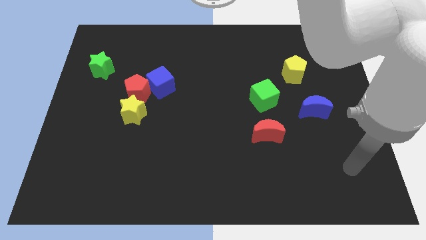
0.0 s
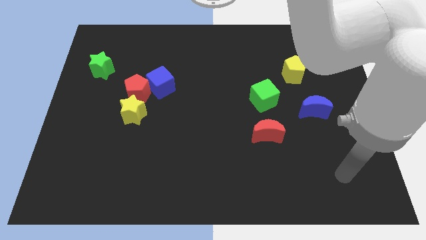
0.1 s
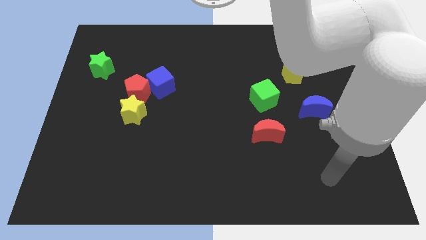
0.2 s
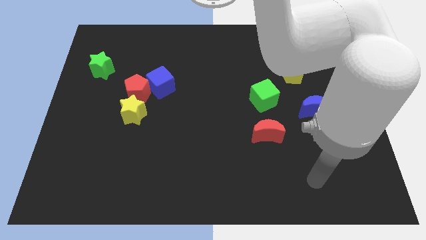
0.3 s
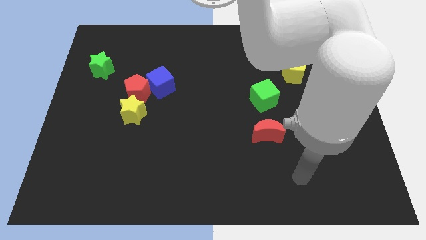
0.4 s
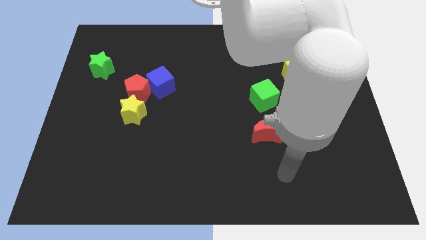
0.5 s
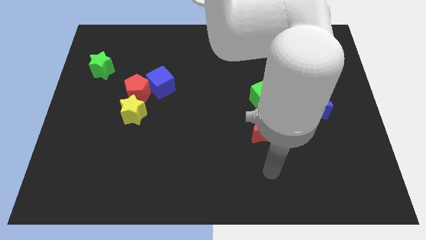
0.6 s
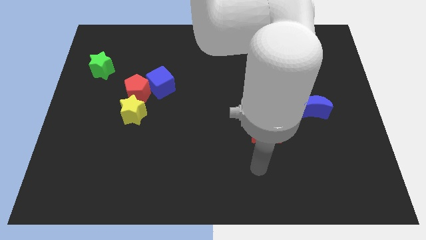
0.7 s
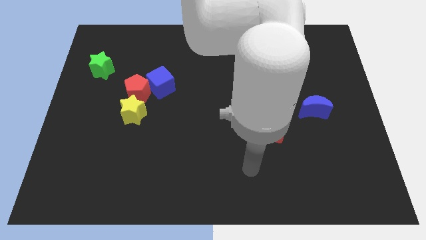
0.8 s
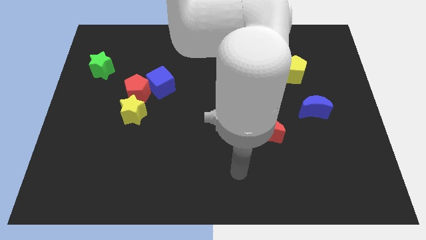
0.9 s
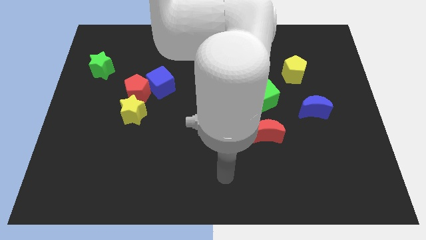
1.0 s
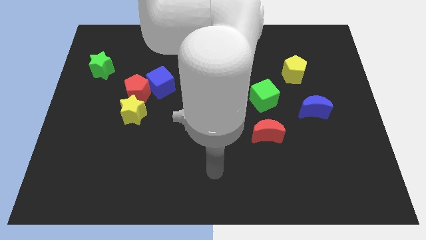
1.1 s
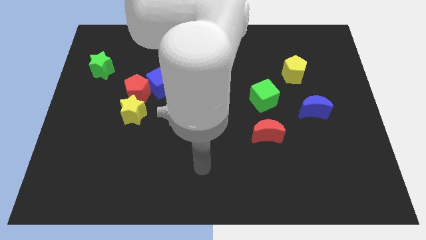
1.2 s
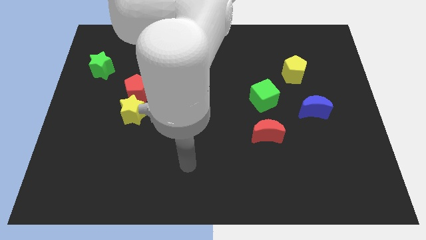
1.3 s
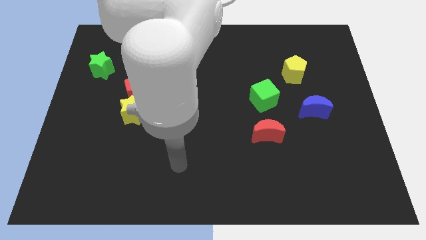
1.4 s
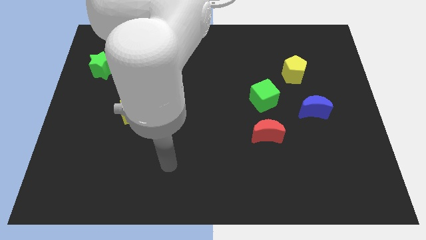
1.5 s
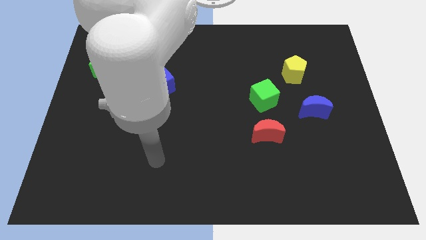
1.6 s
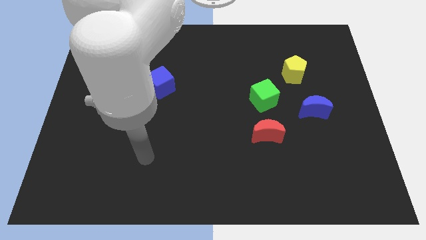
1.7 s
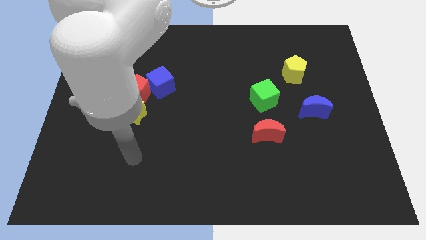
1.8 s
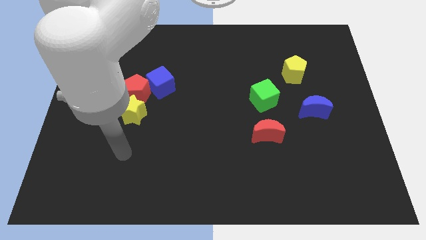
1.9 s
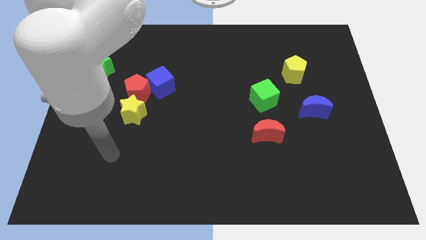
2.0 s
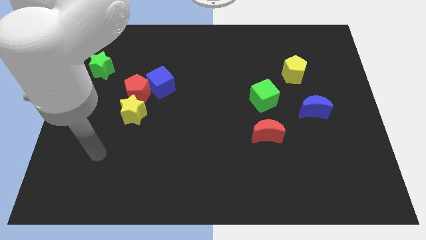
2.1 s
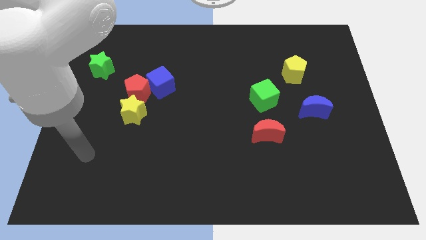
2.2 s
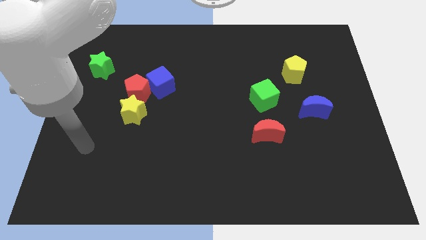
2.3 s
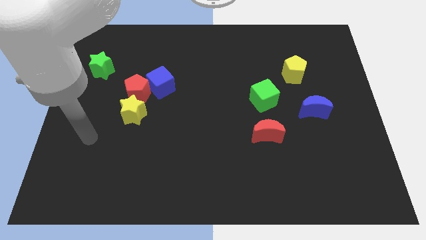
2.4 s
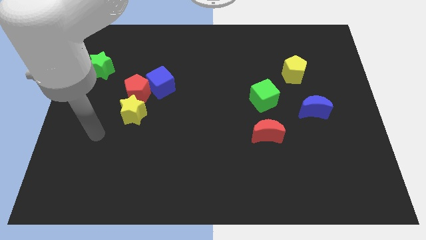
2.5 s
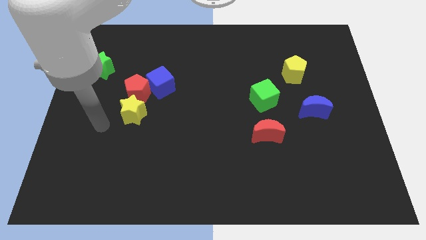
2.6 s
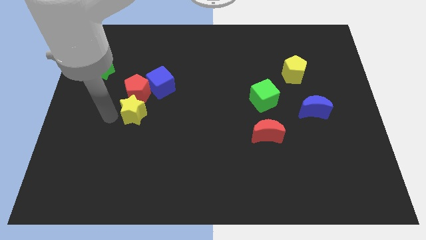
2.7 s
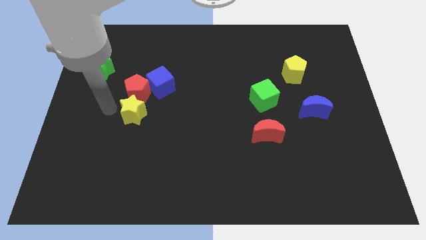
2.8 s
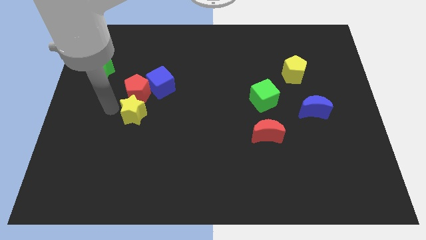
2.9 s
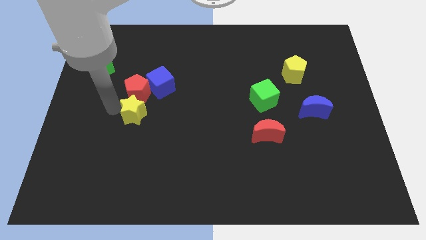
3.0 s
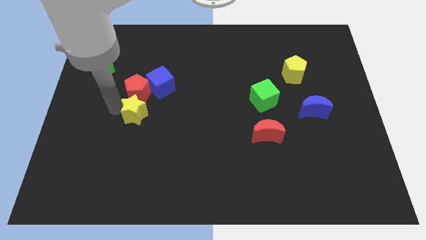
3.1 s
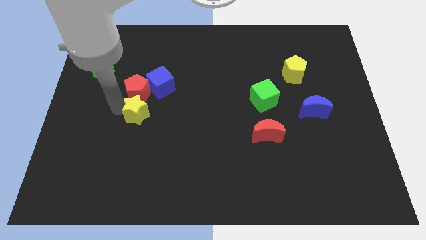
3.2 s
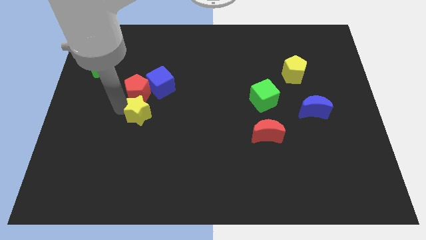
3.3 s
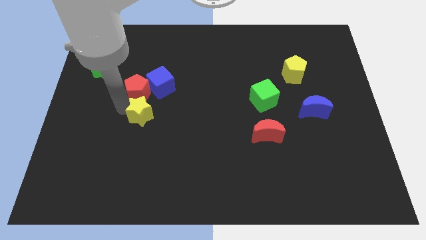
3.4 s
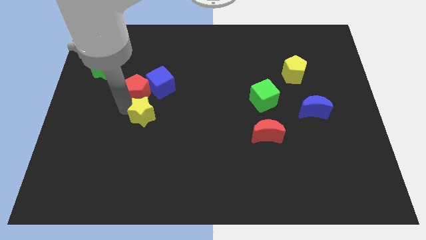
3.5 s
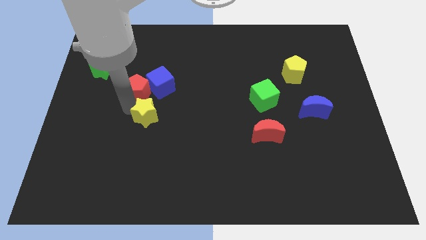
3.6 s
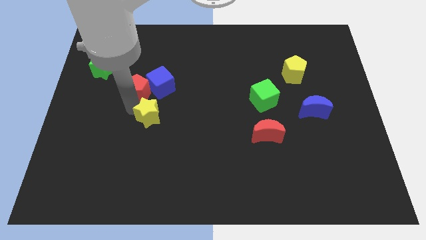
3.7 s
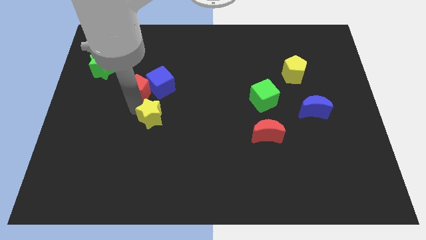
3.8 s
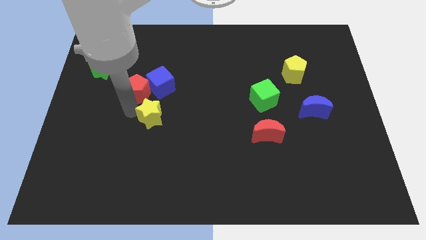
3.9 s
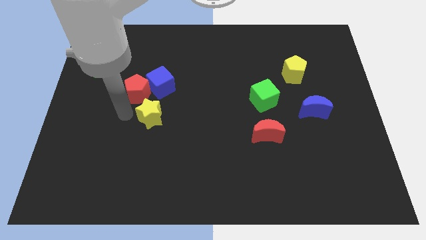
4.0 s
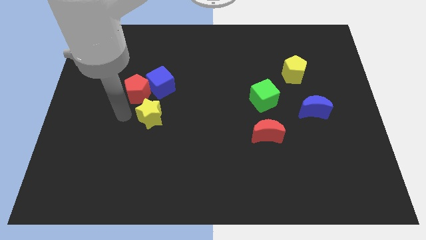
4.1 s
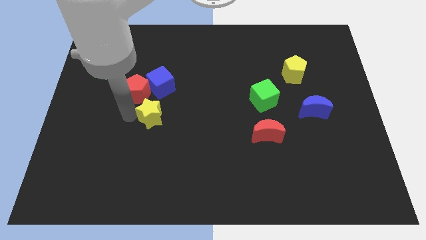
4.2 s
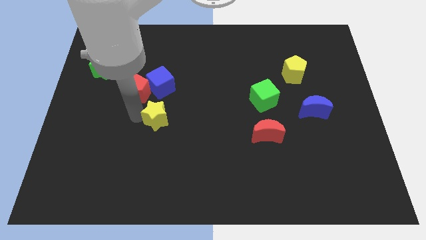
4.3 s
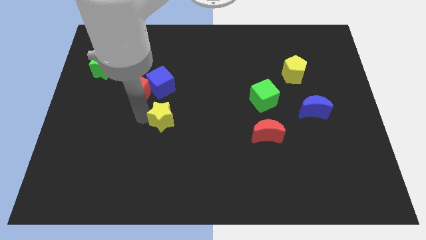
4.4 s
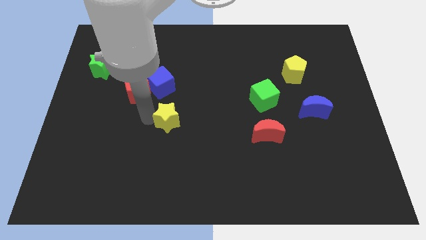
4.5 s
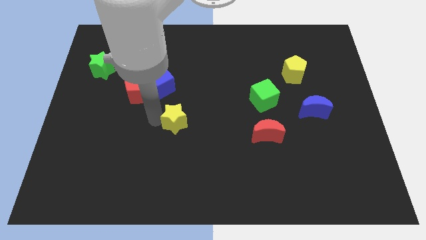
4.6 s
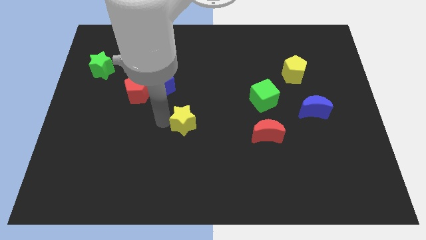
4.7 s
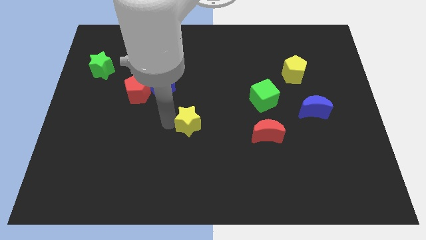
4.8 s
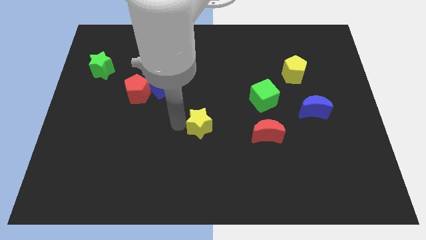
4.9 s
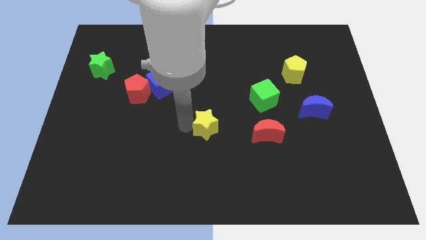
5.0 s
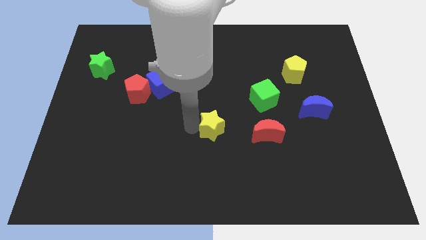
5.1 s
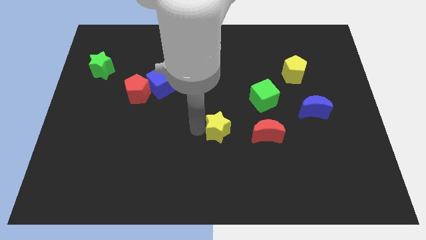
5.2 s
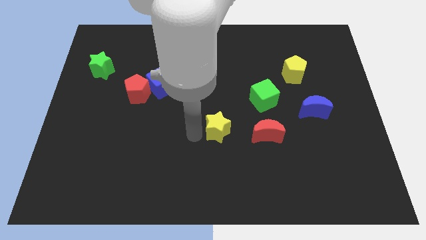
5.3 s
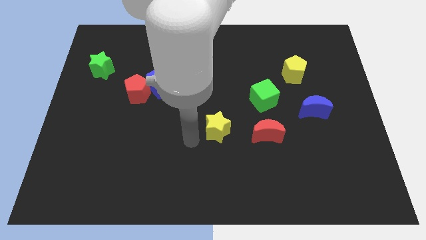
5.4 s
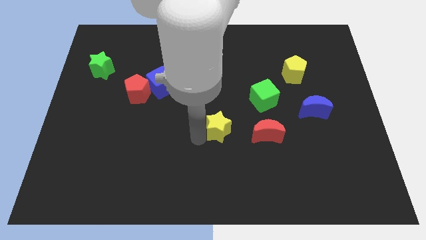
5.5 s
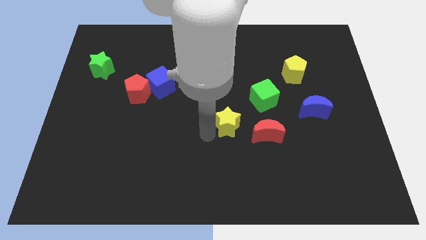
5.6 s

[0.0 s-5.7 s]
move the yellow star right

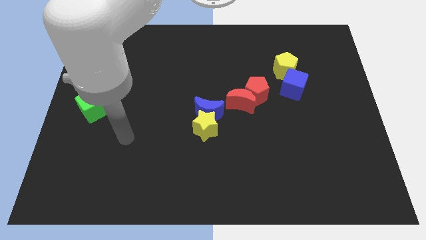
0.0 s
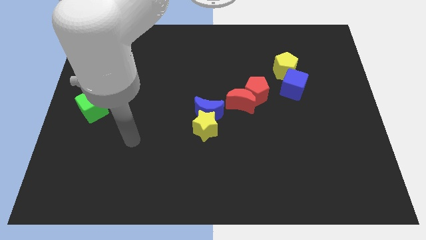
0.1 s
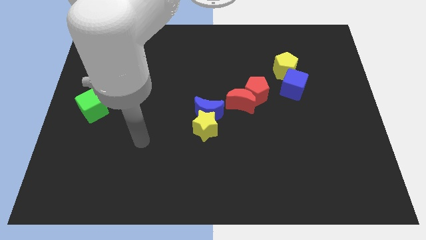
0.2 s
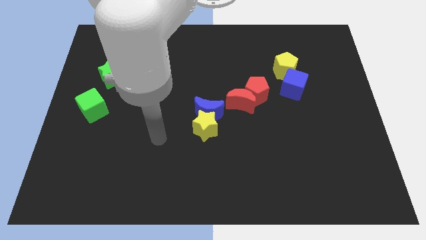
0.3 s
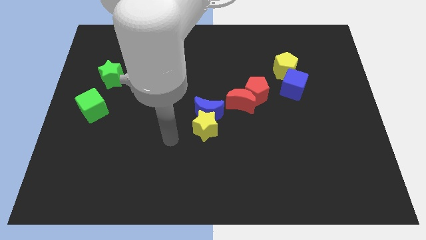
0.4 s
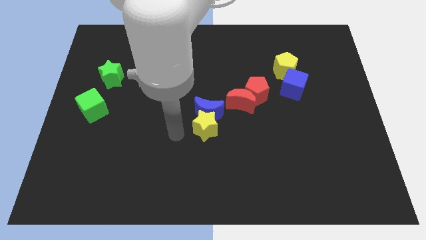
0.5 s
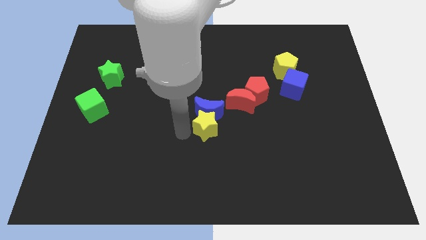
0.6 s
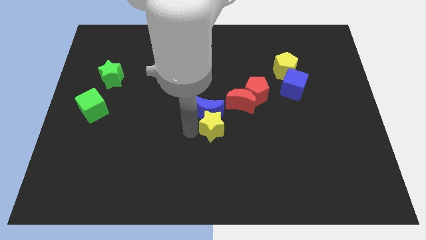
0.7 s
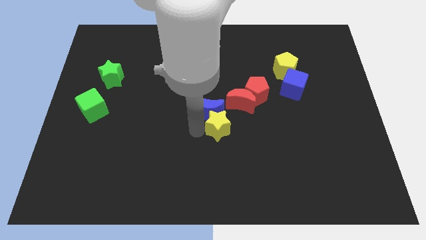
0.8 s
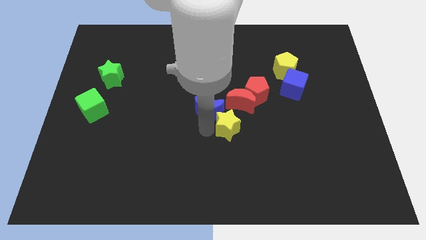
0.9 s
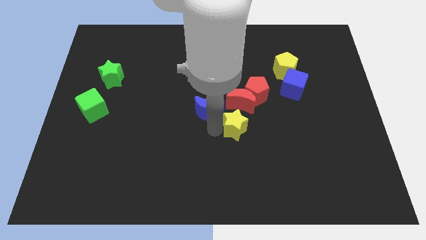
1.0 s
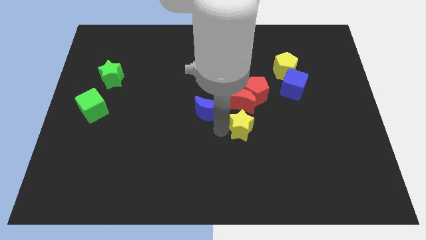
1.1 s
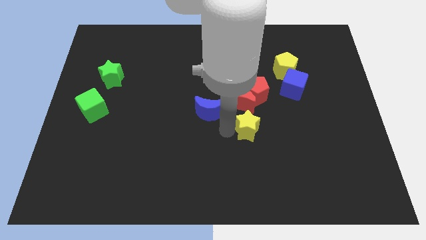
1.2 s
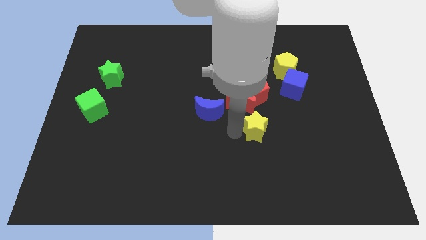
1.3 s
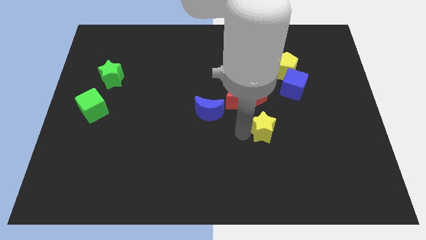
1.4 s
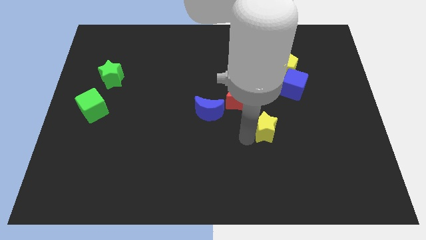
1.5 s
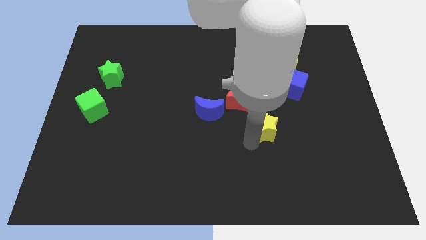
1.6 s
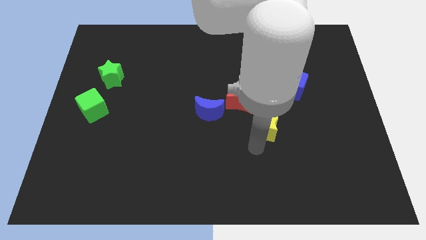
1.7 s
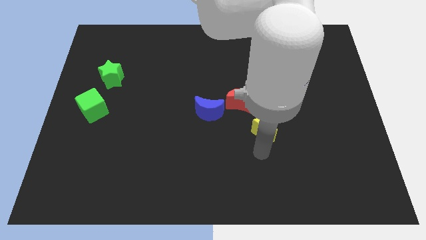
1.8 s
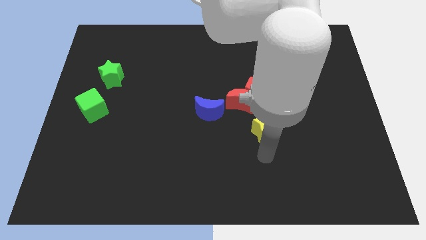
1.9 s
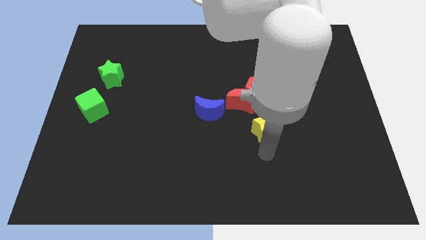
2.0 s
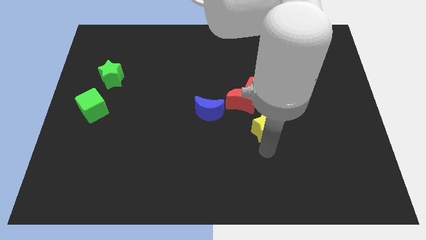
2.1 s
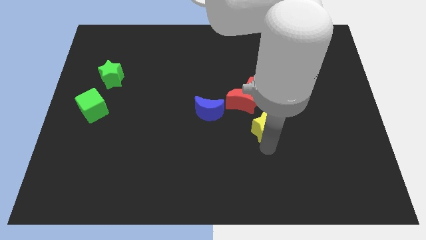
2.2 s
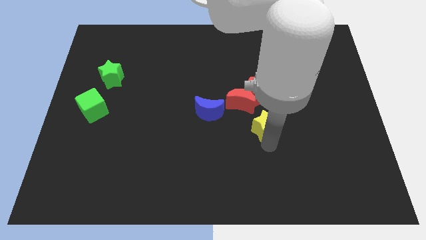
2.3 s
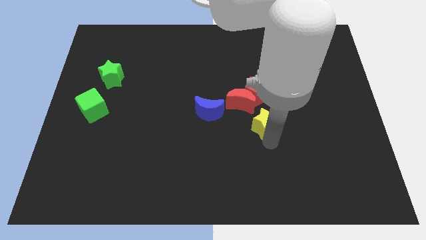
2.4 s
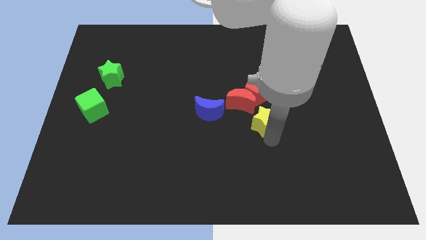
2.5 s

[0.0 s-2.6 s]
slide the yellow star up and right diagonally a little bit
